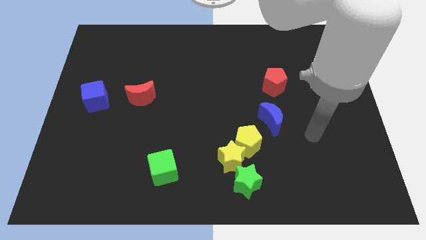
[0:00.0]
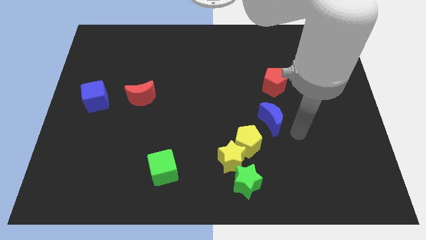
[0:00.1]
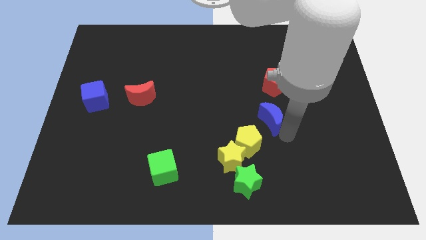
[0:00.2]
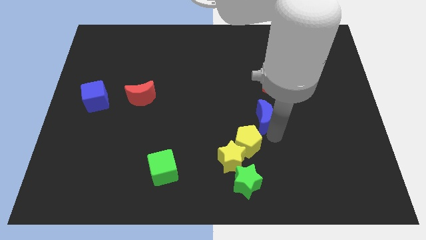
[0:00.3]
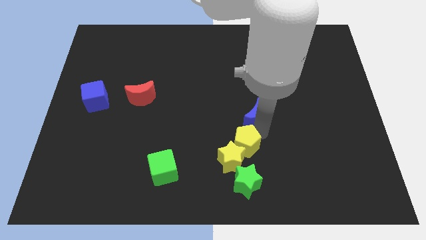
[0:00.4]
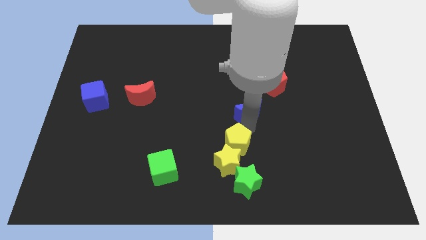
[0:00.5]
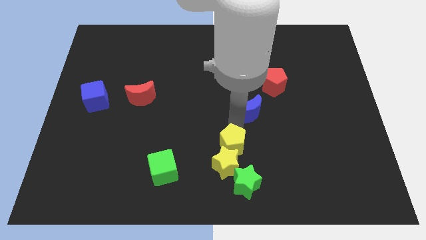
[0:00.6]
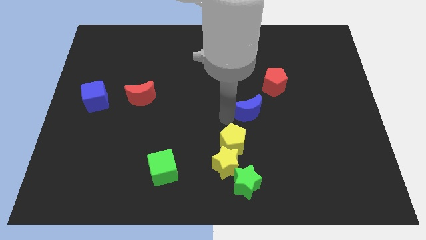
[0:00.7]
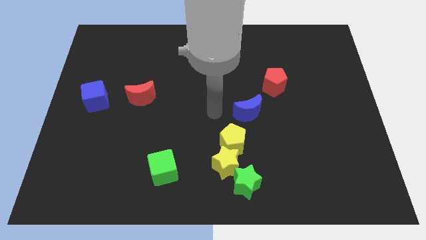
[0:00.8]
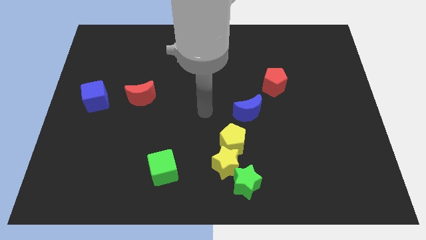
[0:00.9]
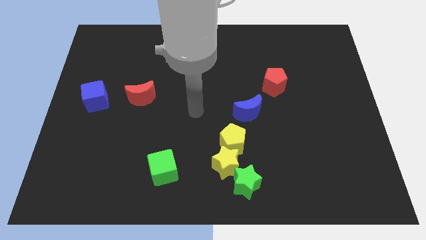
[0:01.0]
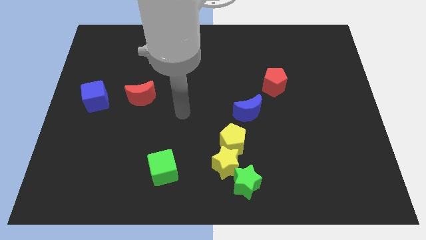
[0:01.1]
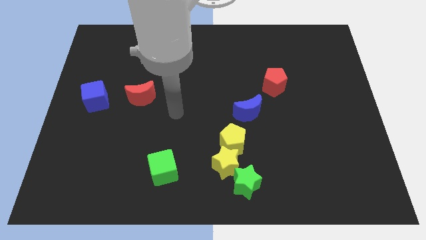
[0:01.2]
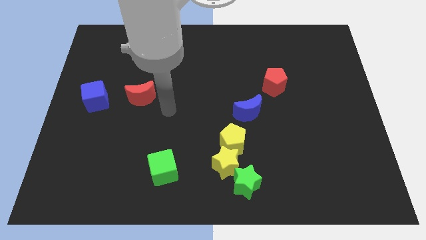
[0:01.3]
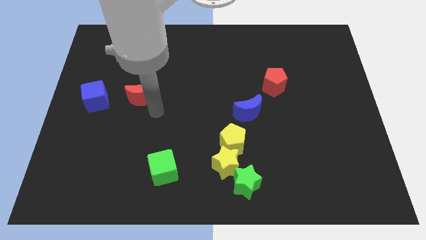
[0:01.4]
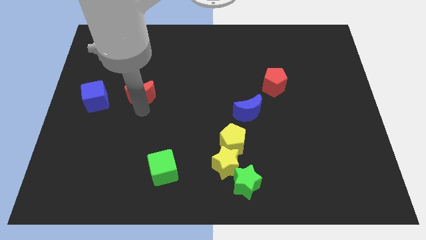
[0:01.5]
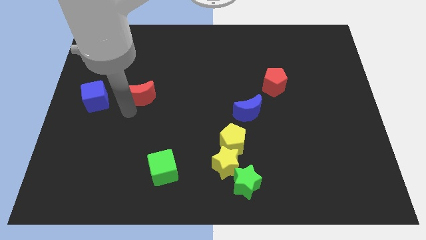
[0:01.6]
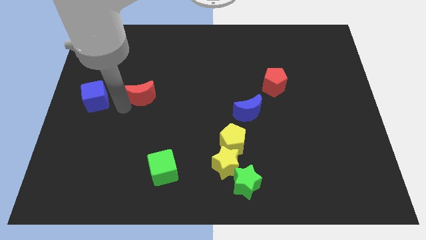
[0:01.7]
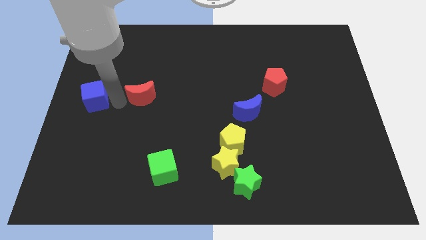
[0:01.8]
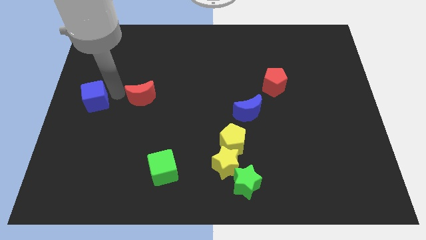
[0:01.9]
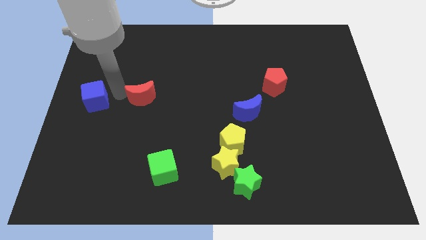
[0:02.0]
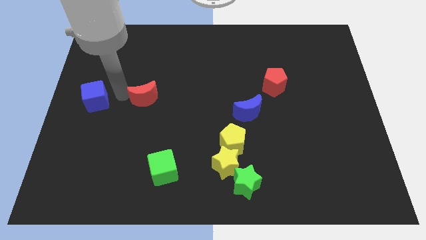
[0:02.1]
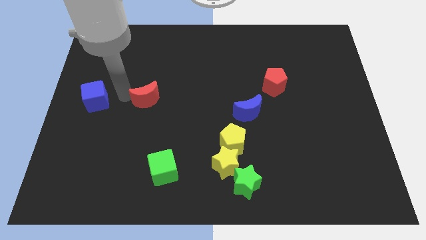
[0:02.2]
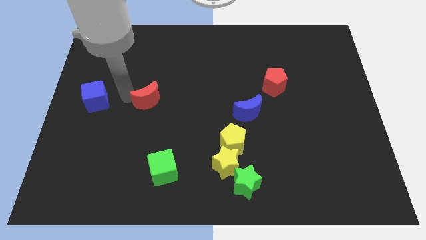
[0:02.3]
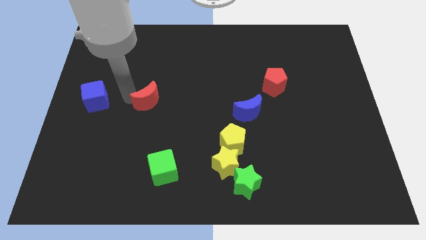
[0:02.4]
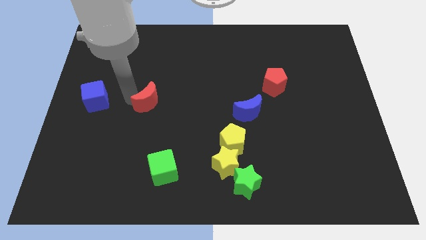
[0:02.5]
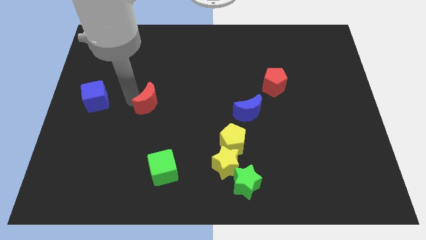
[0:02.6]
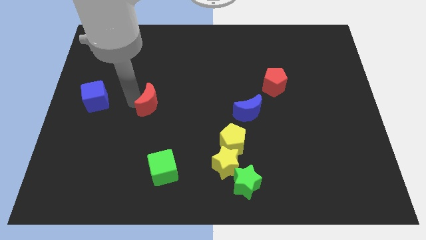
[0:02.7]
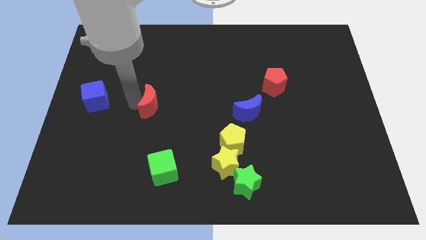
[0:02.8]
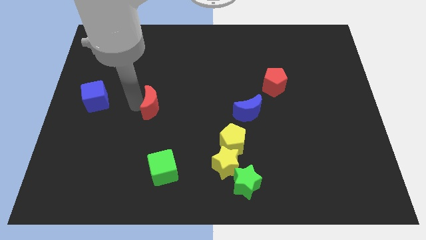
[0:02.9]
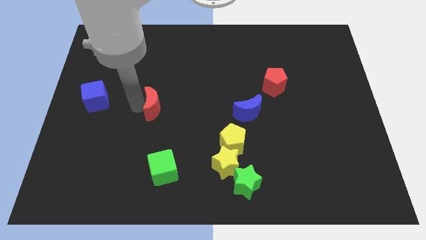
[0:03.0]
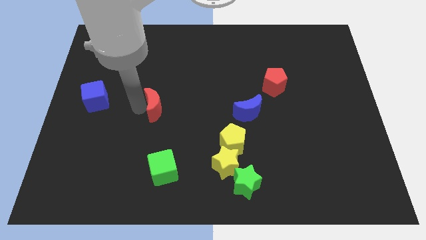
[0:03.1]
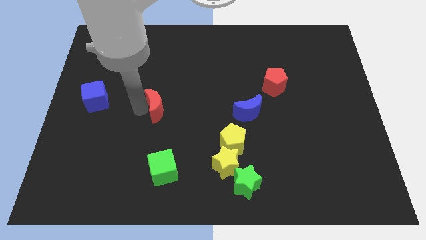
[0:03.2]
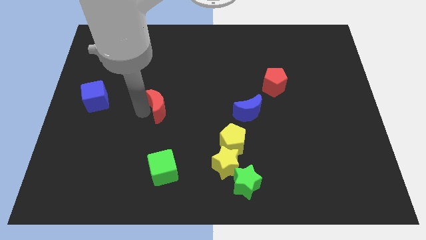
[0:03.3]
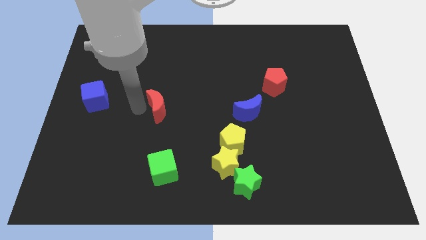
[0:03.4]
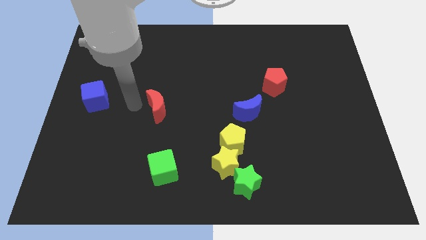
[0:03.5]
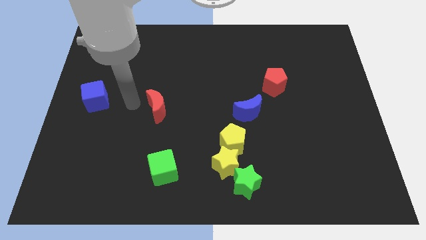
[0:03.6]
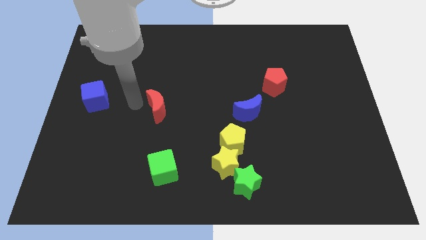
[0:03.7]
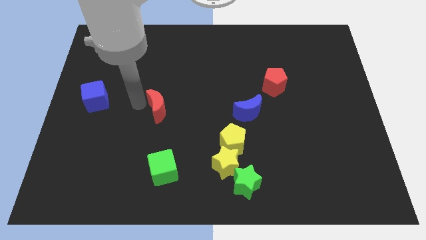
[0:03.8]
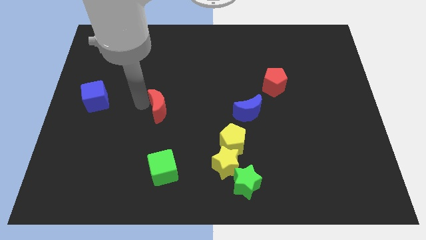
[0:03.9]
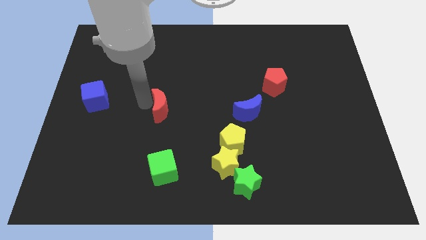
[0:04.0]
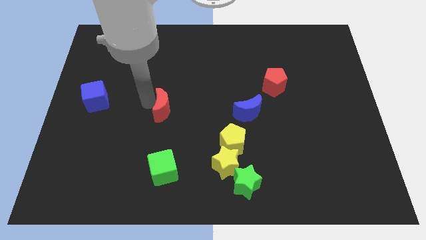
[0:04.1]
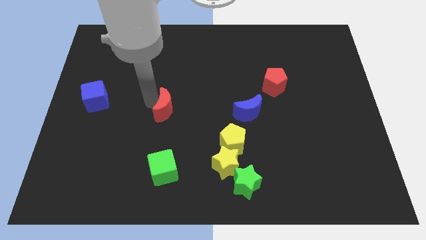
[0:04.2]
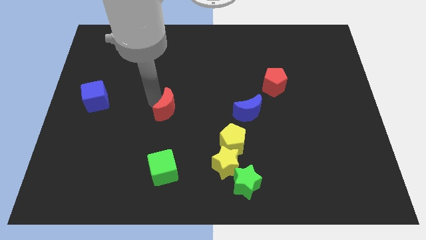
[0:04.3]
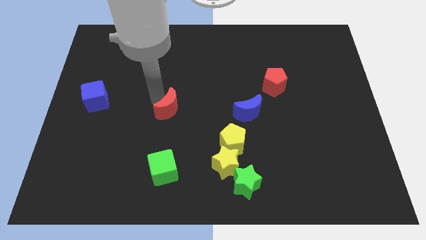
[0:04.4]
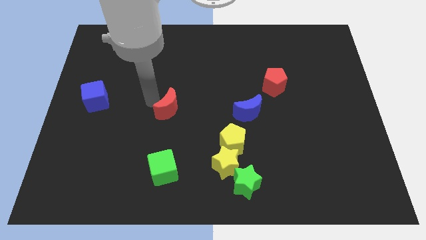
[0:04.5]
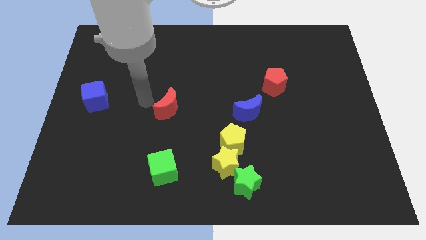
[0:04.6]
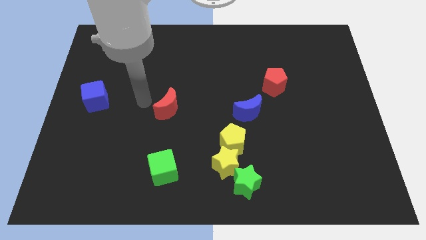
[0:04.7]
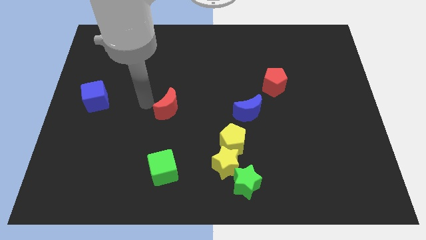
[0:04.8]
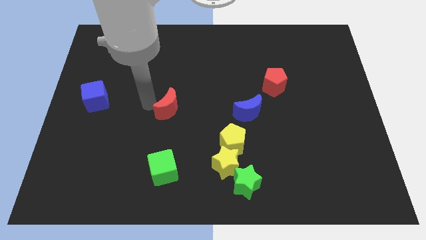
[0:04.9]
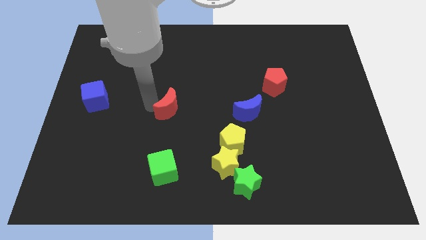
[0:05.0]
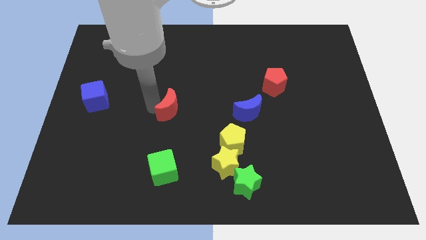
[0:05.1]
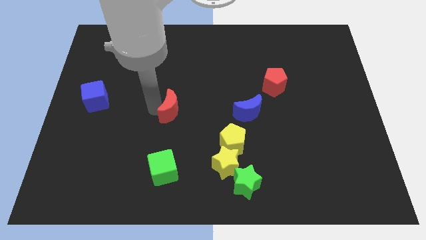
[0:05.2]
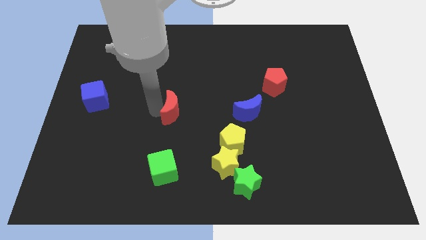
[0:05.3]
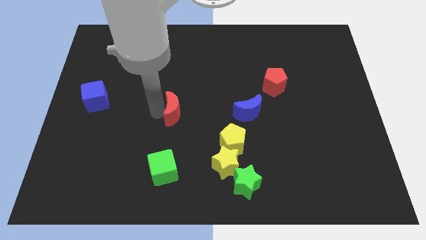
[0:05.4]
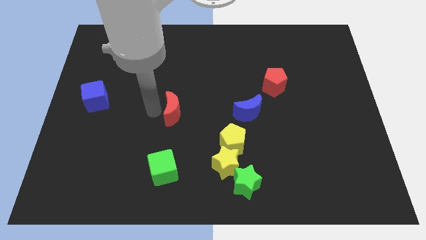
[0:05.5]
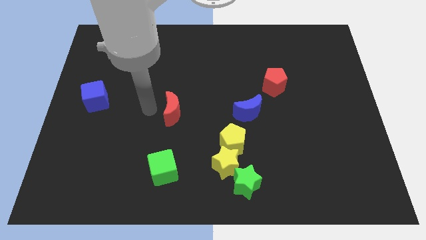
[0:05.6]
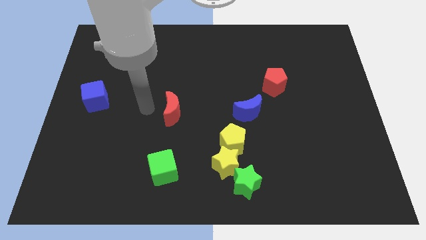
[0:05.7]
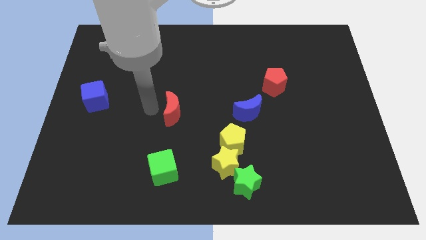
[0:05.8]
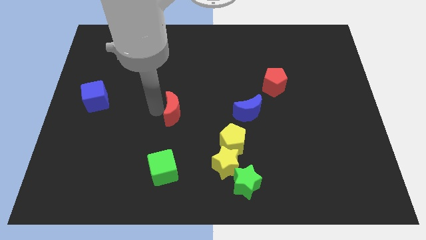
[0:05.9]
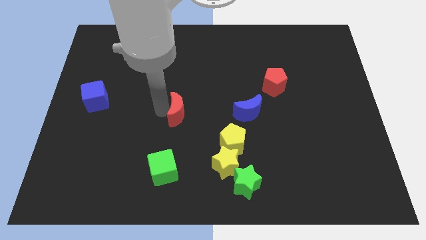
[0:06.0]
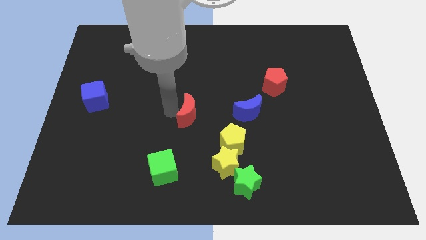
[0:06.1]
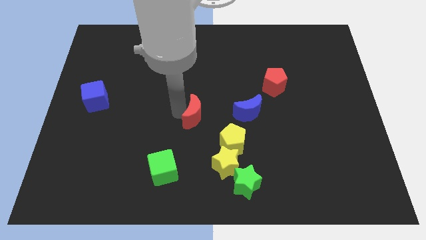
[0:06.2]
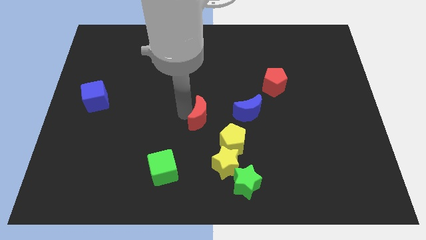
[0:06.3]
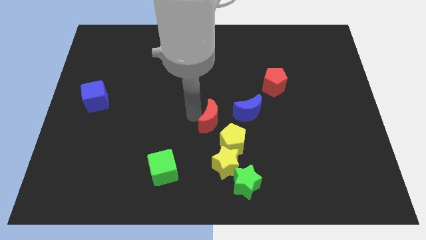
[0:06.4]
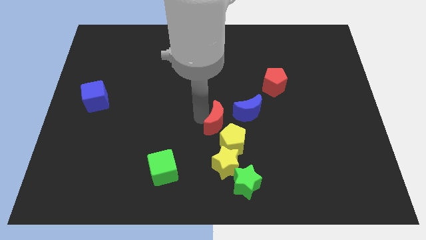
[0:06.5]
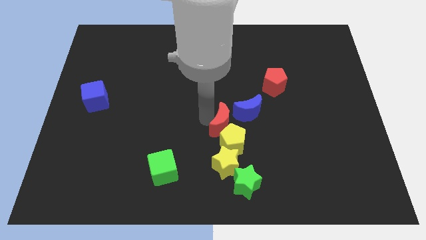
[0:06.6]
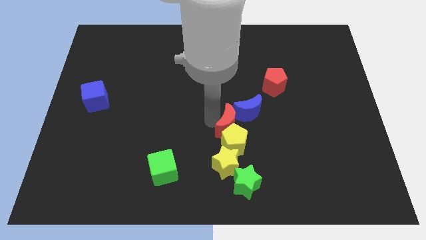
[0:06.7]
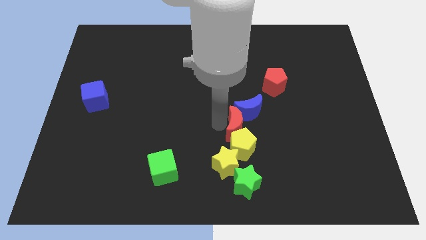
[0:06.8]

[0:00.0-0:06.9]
move the red moon to the bottom of the blue moon

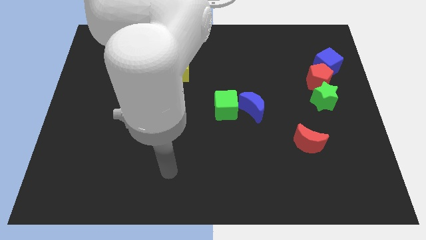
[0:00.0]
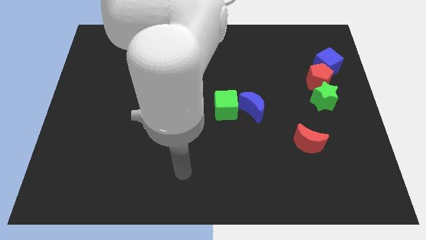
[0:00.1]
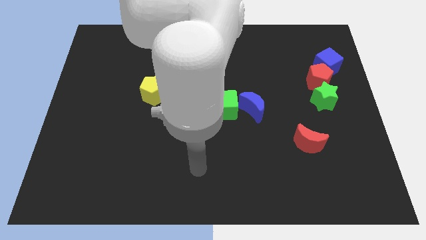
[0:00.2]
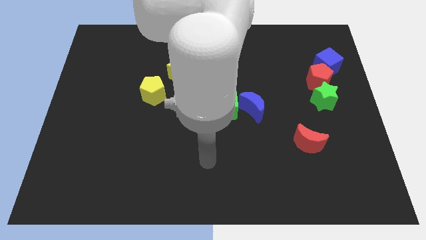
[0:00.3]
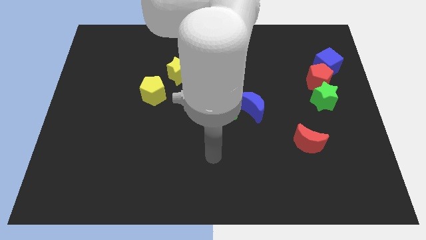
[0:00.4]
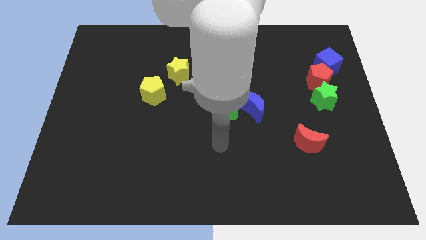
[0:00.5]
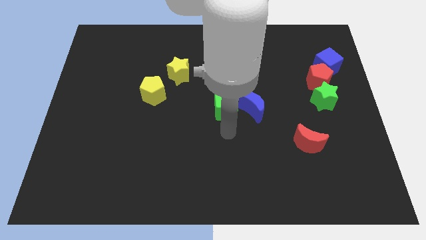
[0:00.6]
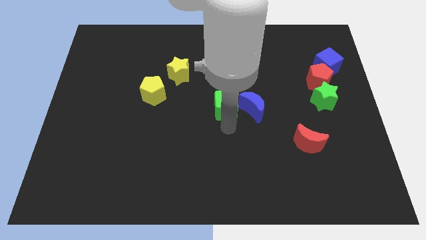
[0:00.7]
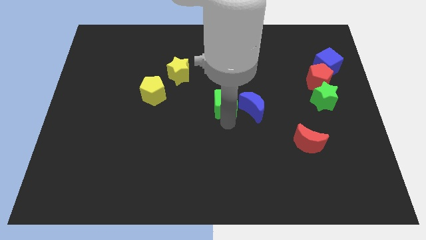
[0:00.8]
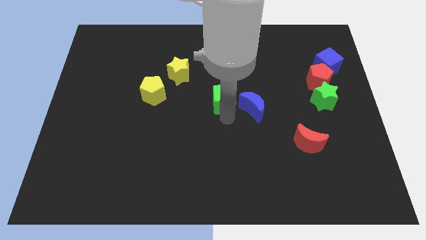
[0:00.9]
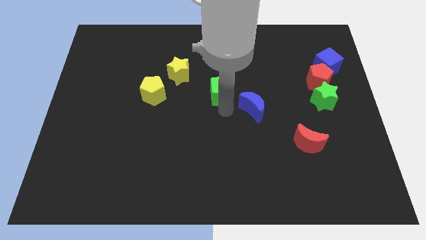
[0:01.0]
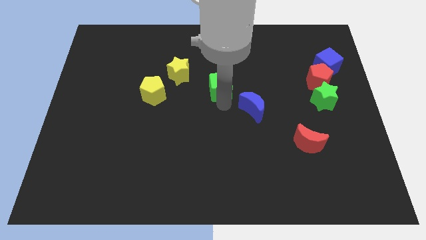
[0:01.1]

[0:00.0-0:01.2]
put the green cube to the right of the yellow star
